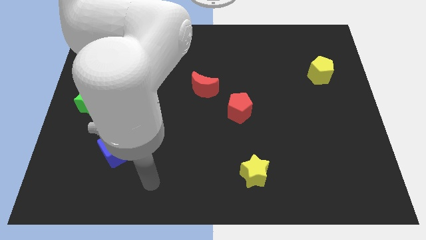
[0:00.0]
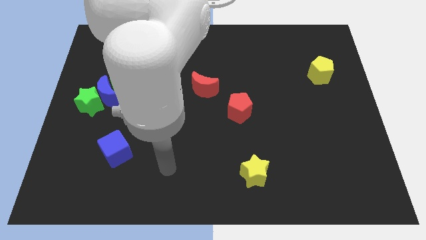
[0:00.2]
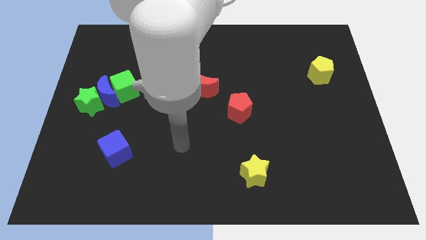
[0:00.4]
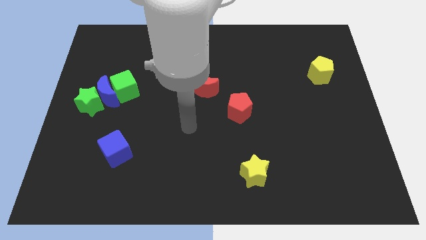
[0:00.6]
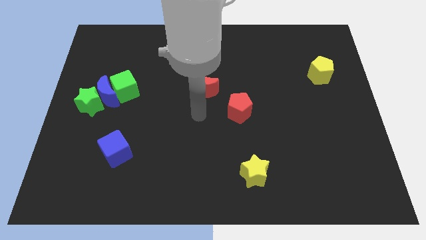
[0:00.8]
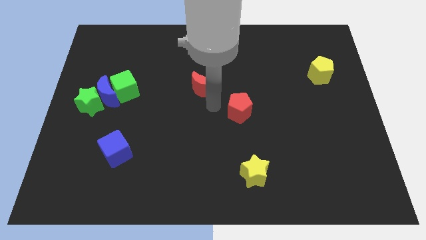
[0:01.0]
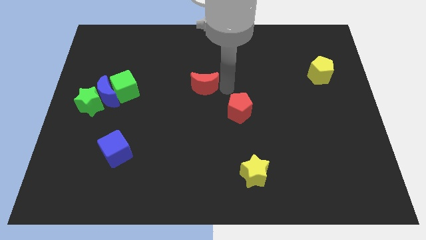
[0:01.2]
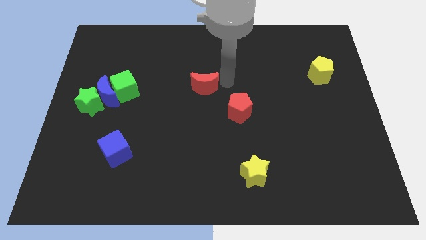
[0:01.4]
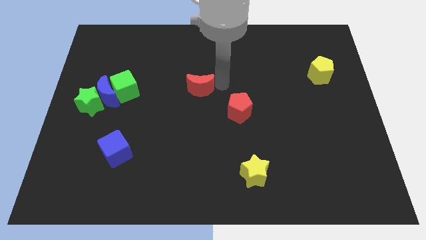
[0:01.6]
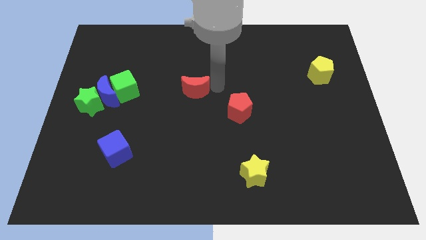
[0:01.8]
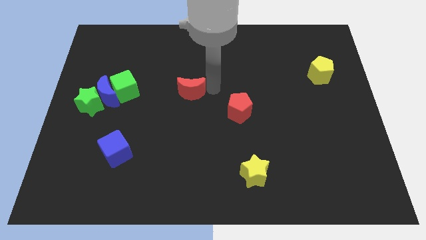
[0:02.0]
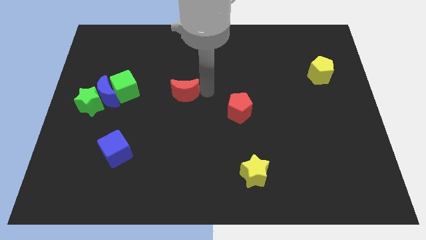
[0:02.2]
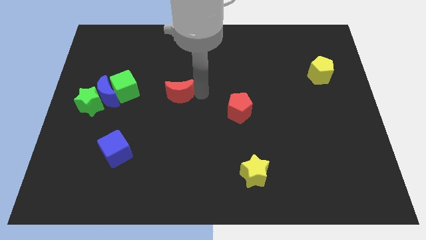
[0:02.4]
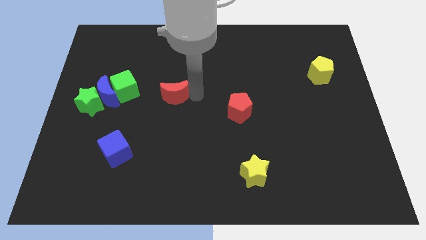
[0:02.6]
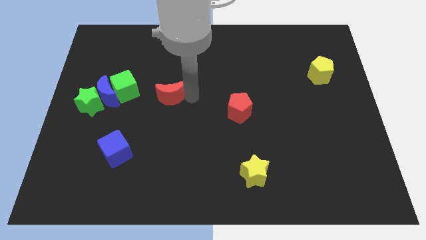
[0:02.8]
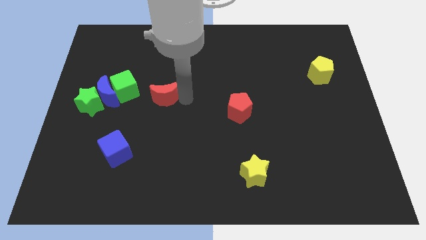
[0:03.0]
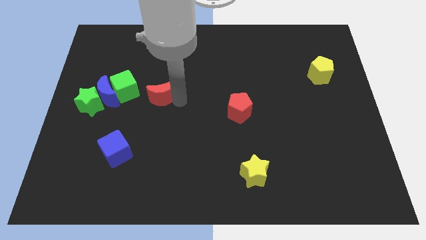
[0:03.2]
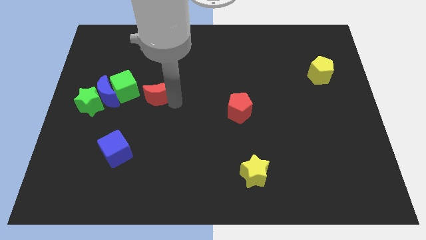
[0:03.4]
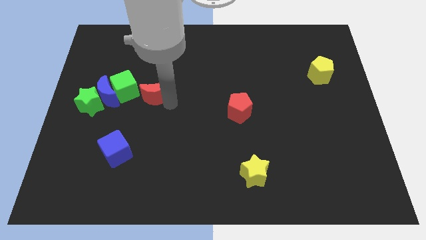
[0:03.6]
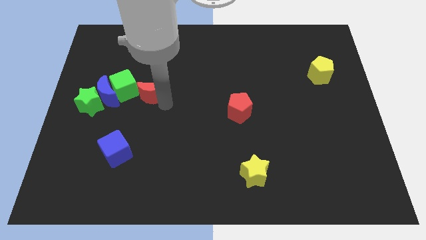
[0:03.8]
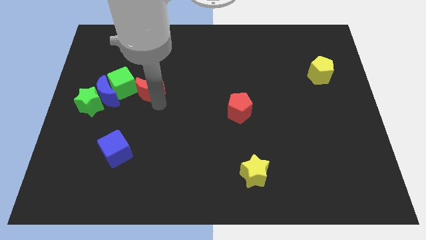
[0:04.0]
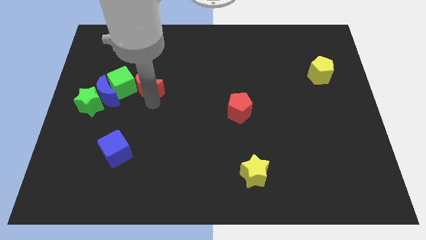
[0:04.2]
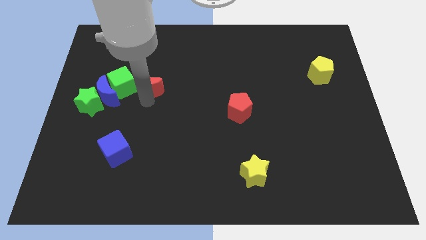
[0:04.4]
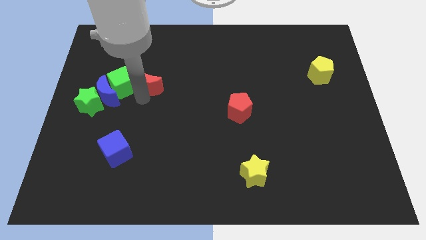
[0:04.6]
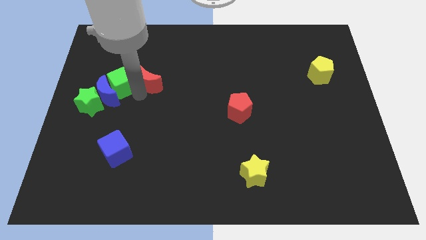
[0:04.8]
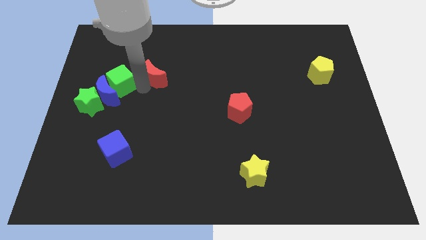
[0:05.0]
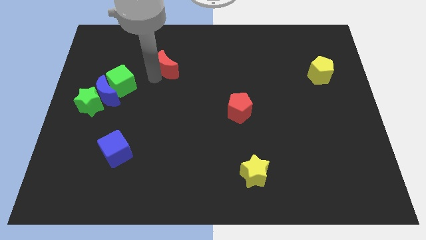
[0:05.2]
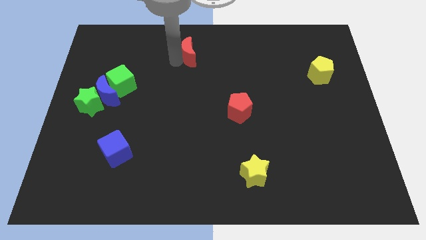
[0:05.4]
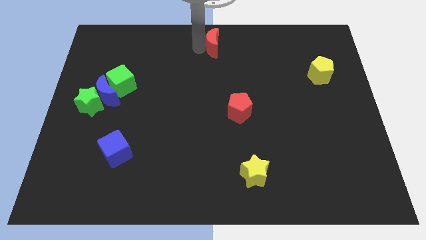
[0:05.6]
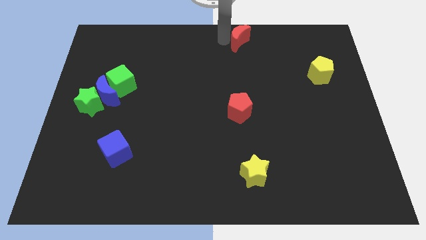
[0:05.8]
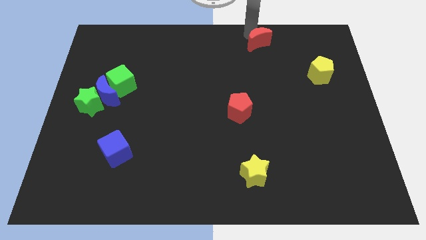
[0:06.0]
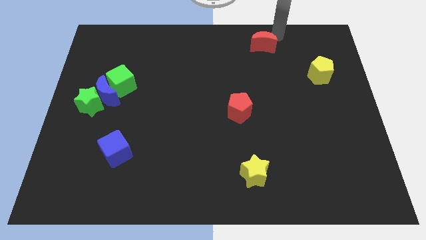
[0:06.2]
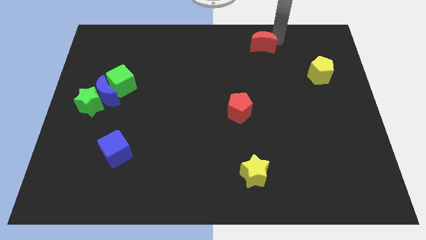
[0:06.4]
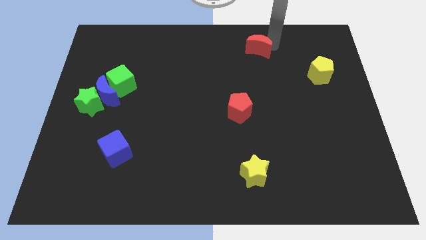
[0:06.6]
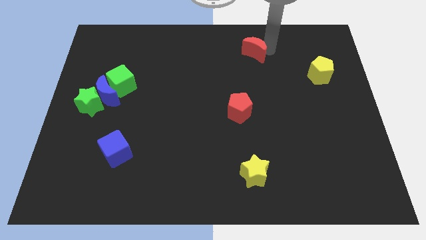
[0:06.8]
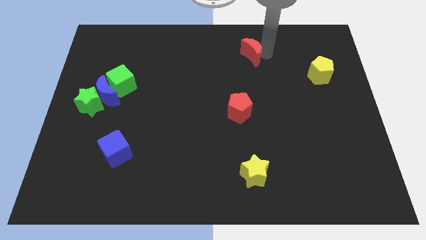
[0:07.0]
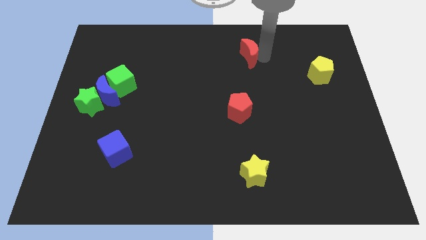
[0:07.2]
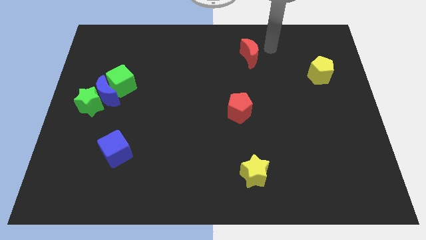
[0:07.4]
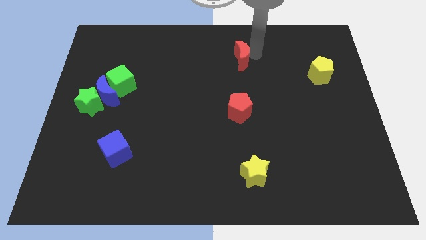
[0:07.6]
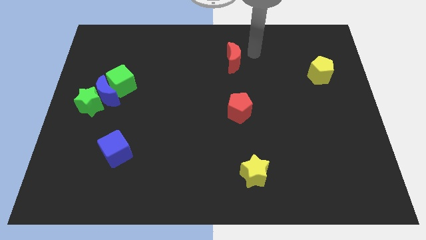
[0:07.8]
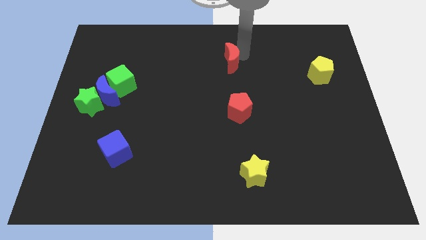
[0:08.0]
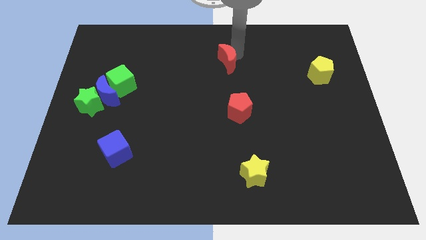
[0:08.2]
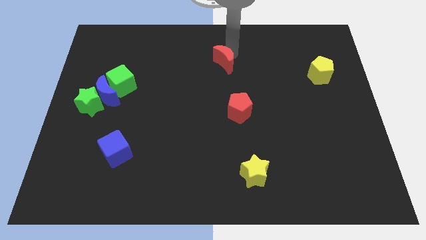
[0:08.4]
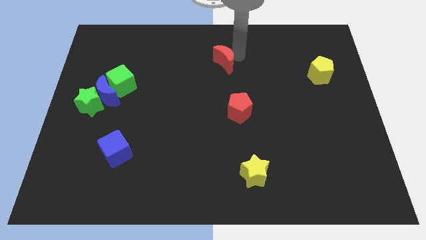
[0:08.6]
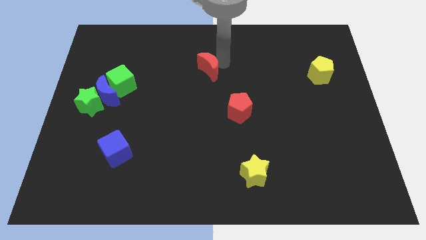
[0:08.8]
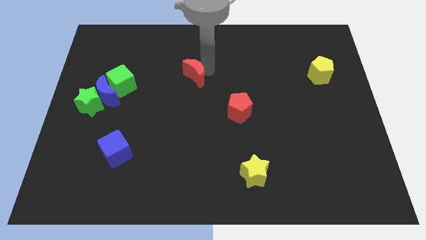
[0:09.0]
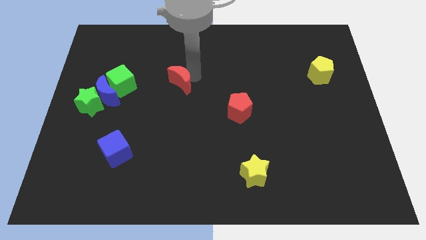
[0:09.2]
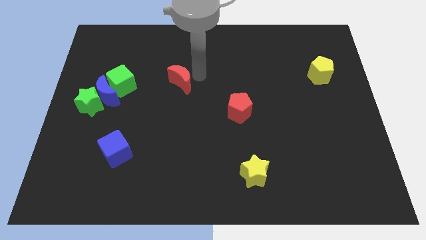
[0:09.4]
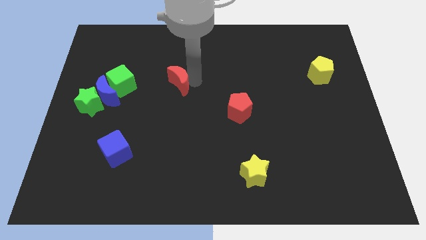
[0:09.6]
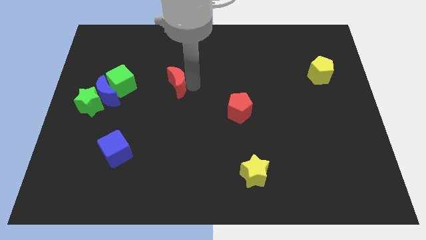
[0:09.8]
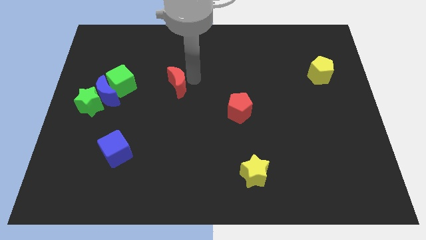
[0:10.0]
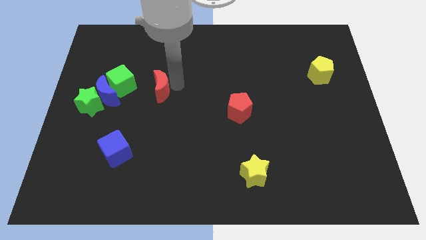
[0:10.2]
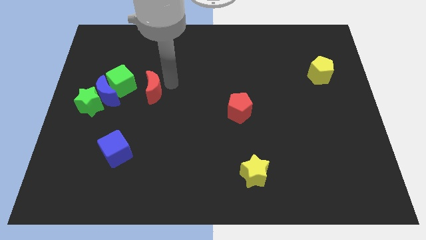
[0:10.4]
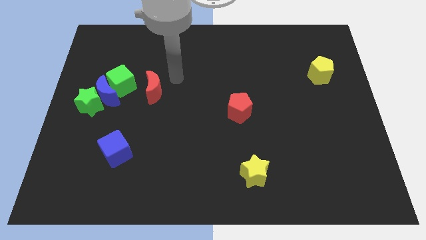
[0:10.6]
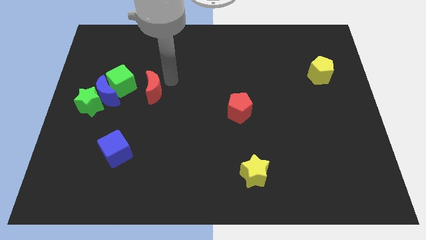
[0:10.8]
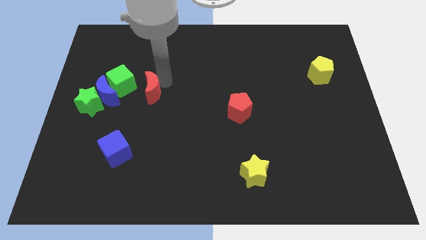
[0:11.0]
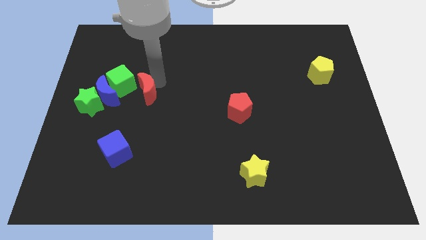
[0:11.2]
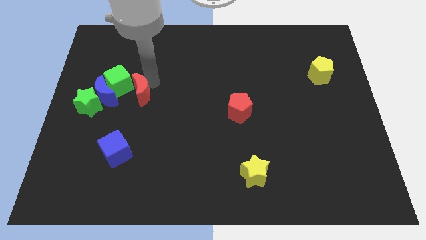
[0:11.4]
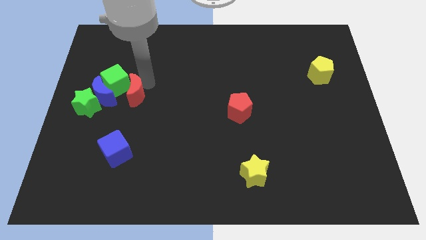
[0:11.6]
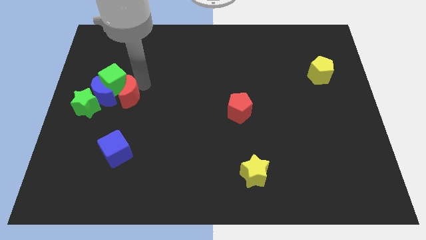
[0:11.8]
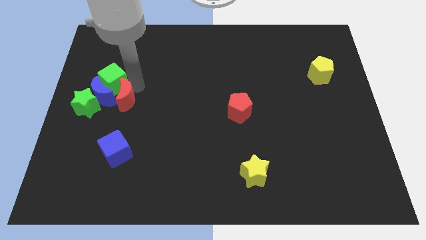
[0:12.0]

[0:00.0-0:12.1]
slide the red moon towards the blue moon

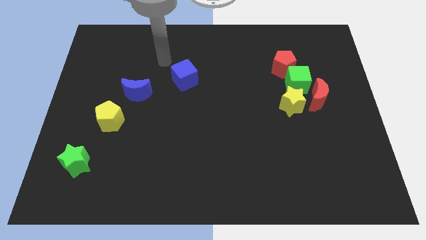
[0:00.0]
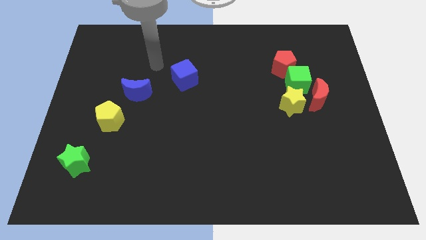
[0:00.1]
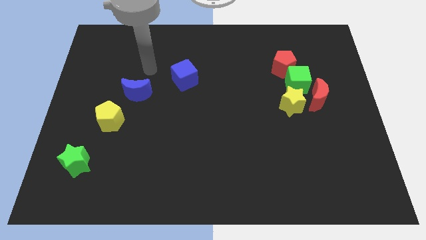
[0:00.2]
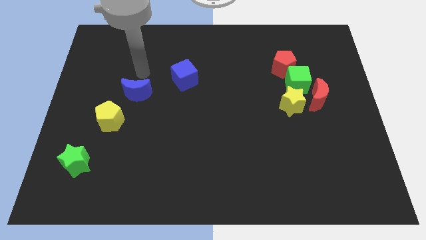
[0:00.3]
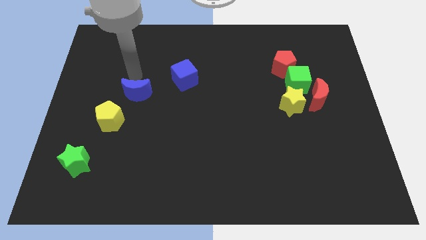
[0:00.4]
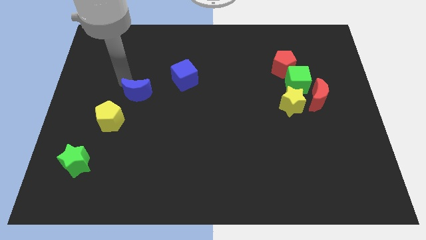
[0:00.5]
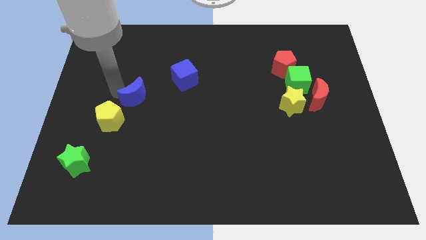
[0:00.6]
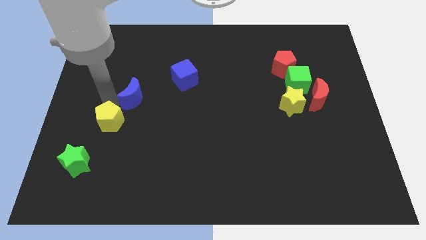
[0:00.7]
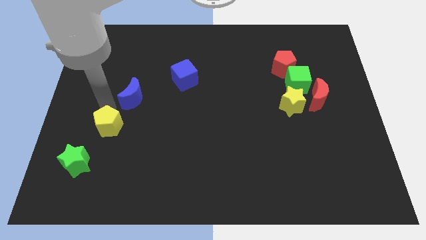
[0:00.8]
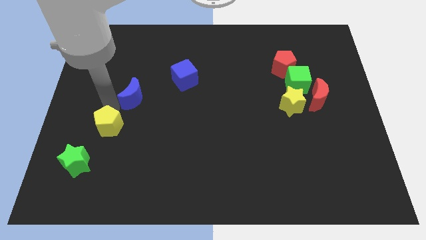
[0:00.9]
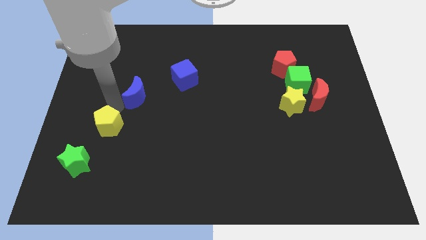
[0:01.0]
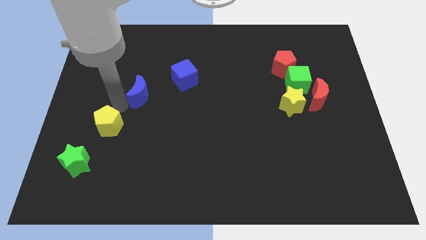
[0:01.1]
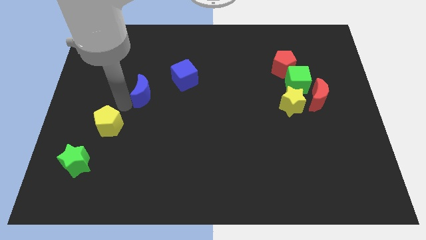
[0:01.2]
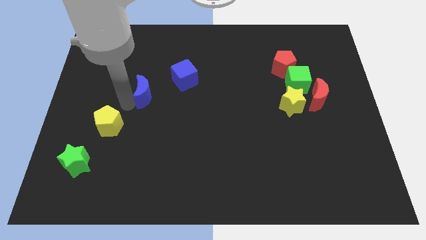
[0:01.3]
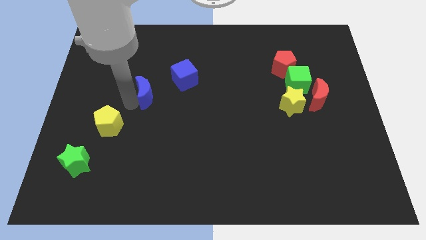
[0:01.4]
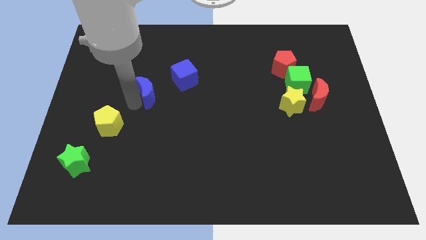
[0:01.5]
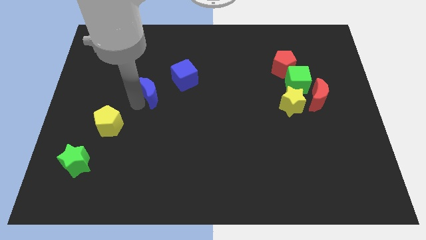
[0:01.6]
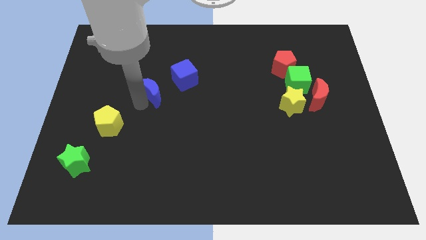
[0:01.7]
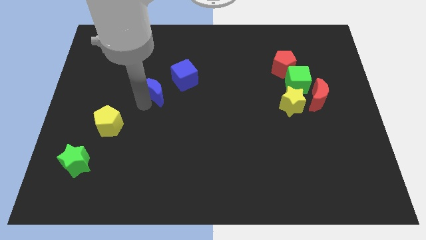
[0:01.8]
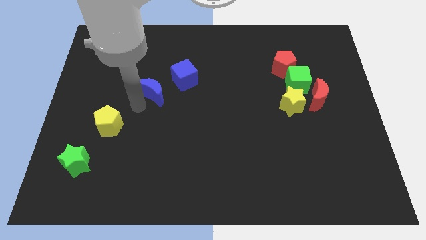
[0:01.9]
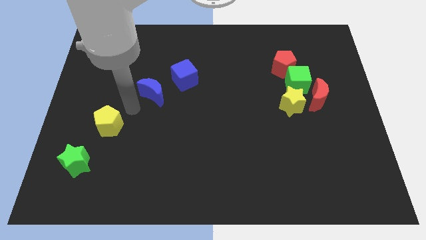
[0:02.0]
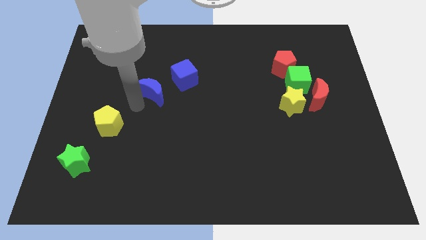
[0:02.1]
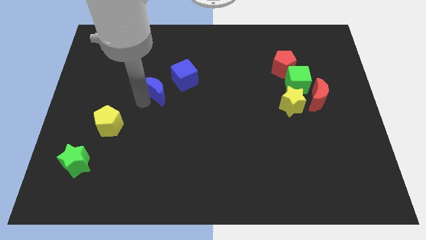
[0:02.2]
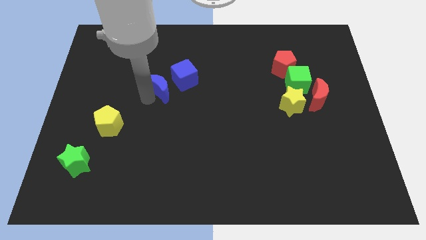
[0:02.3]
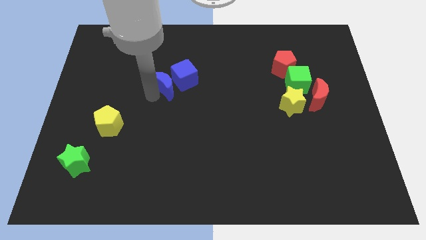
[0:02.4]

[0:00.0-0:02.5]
slide the blue moon close to the blue cube
